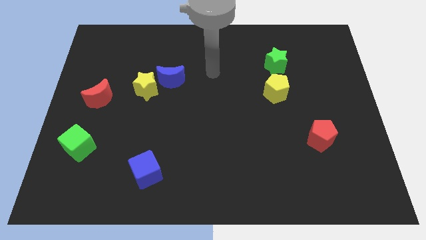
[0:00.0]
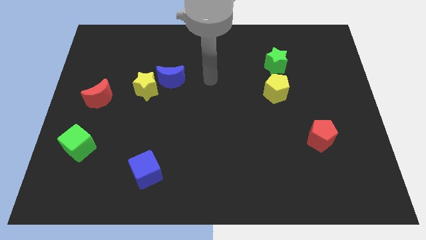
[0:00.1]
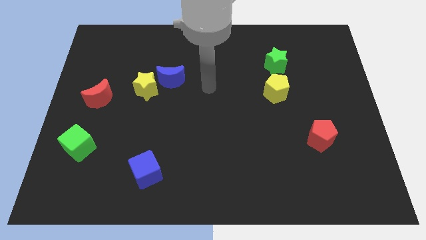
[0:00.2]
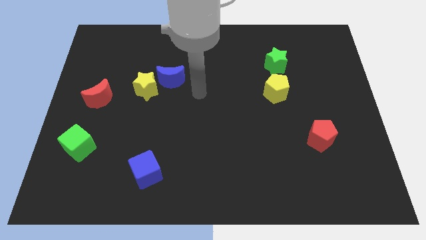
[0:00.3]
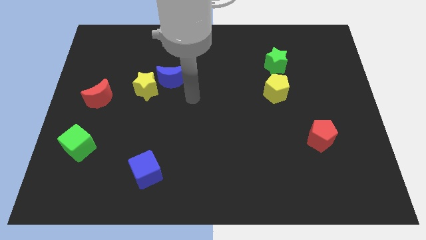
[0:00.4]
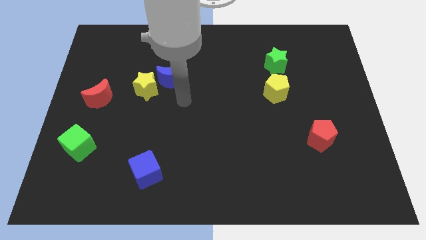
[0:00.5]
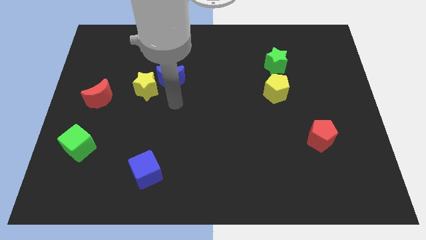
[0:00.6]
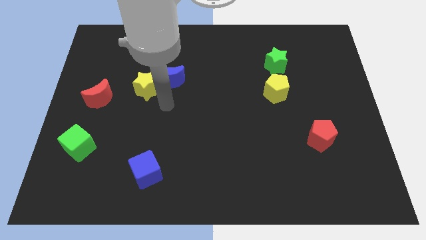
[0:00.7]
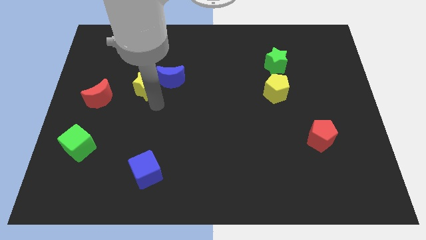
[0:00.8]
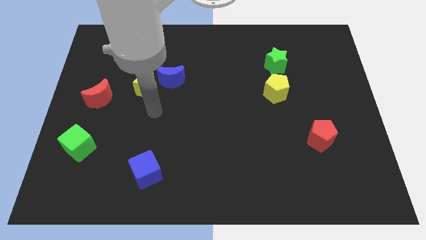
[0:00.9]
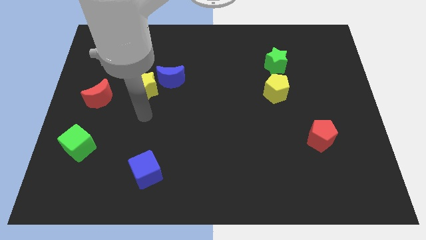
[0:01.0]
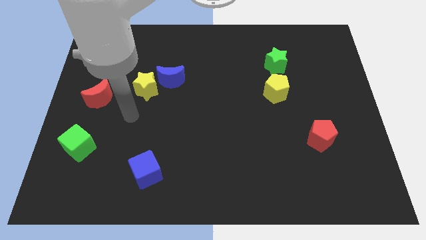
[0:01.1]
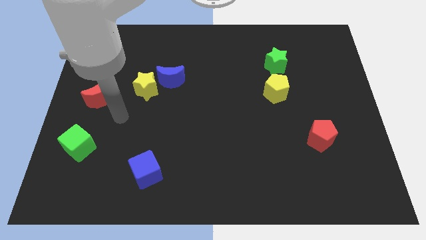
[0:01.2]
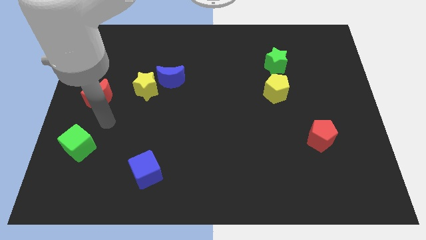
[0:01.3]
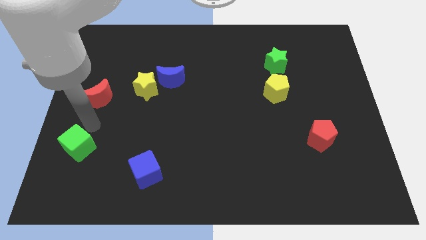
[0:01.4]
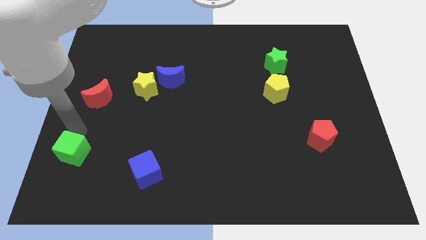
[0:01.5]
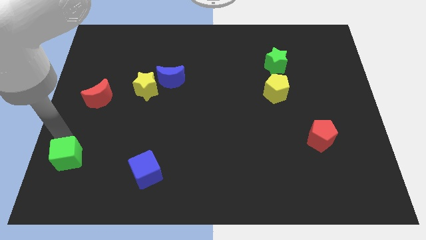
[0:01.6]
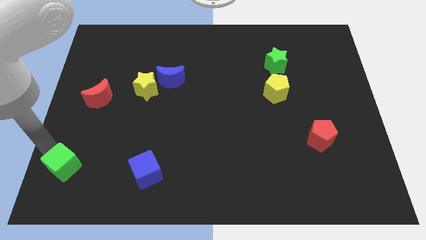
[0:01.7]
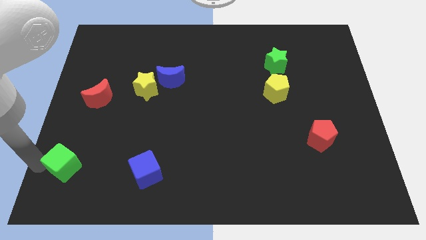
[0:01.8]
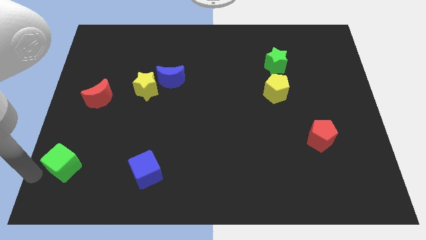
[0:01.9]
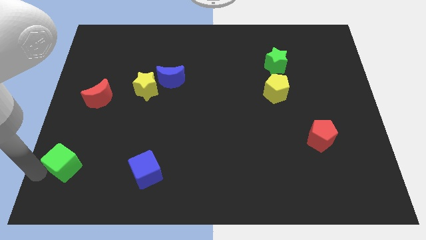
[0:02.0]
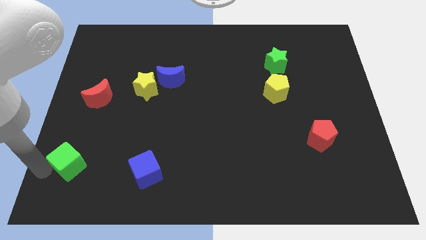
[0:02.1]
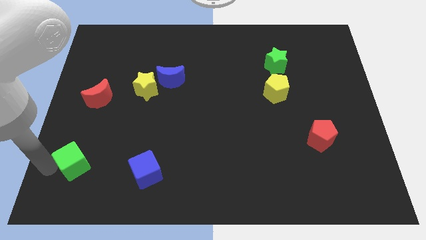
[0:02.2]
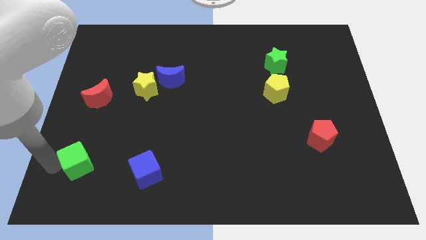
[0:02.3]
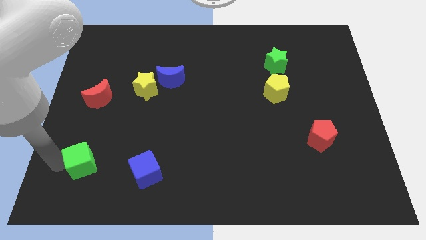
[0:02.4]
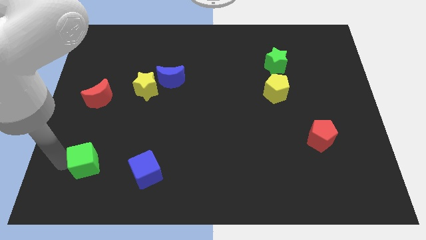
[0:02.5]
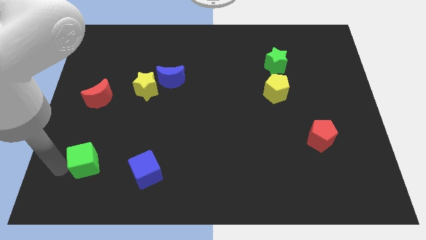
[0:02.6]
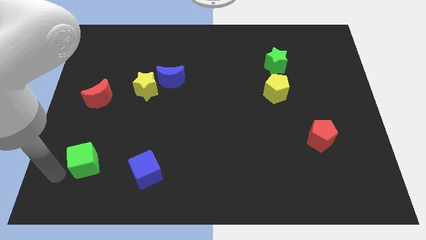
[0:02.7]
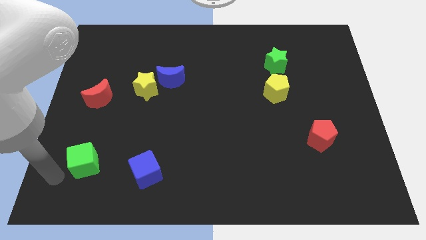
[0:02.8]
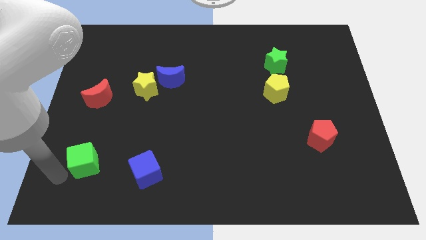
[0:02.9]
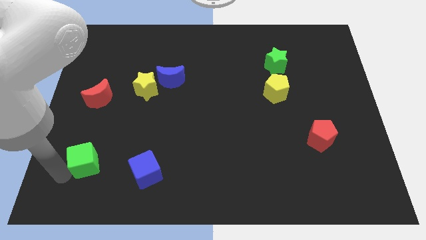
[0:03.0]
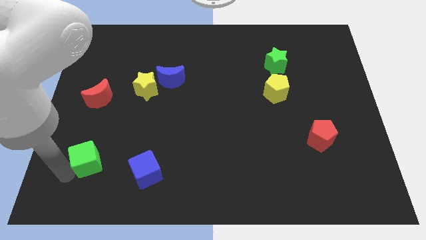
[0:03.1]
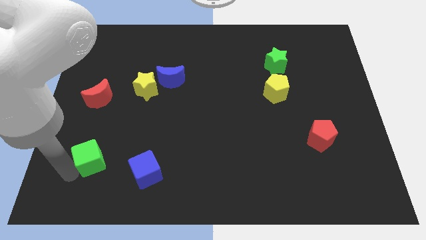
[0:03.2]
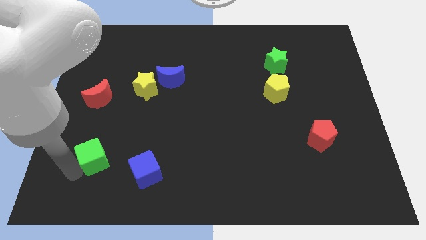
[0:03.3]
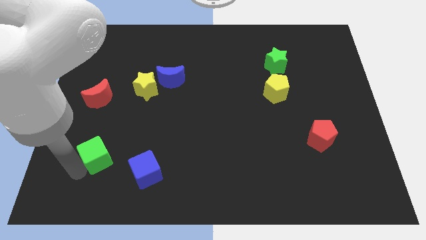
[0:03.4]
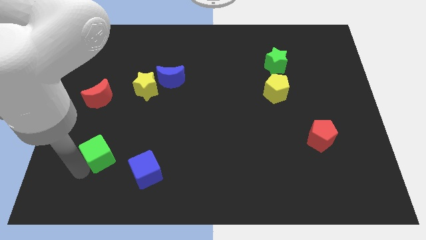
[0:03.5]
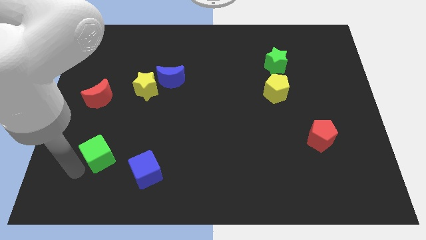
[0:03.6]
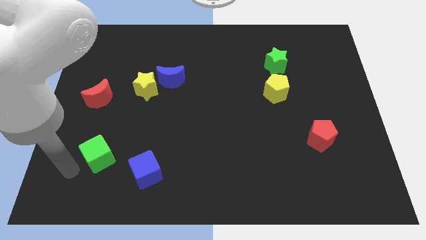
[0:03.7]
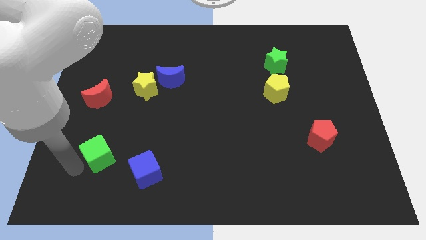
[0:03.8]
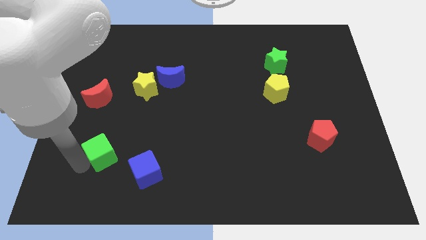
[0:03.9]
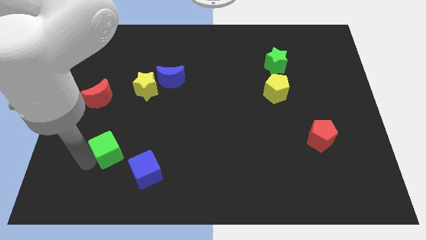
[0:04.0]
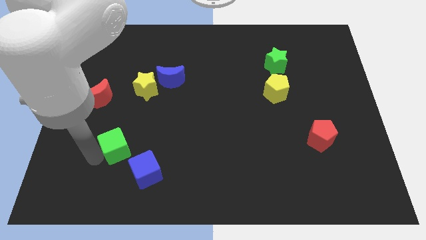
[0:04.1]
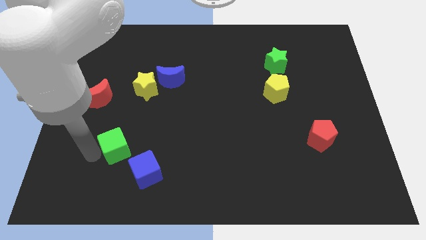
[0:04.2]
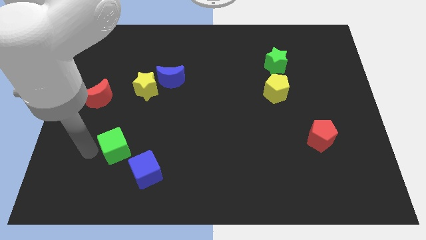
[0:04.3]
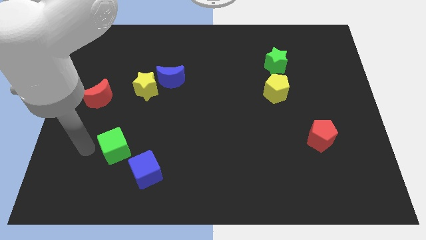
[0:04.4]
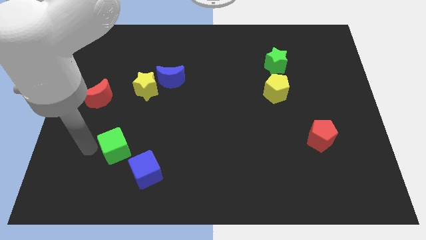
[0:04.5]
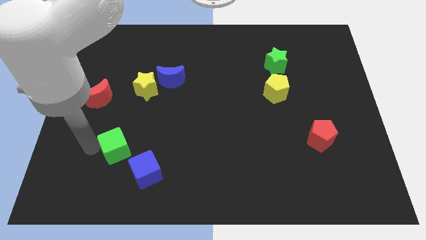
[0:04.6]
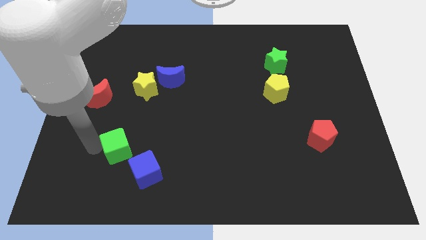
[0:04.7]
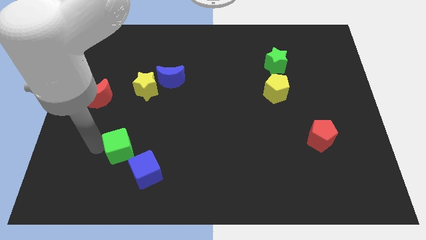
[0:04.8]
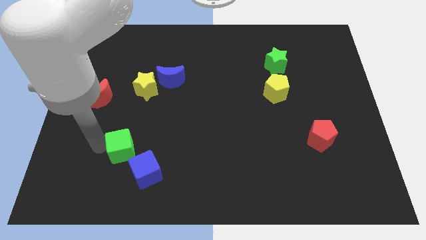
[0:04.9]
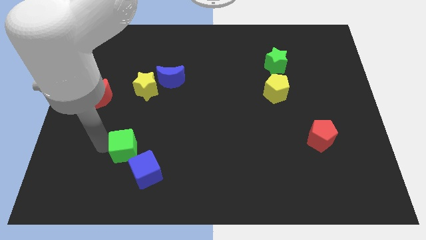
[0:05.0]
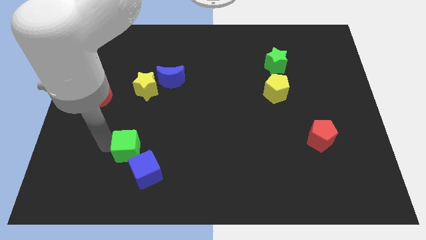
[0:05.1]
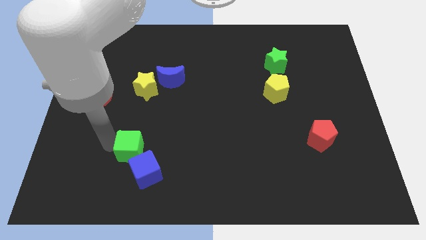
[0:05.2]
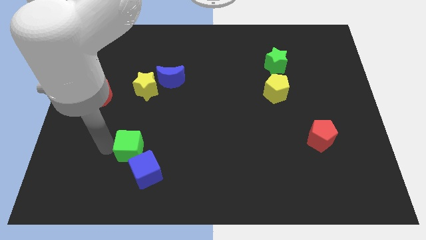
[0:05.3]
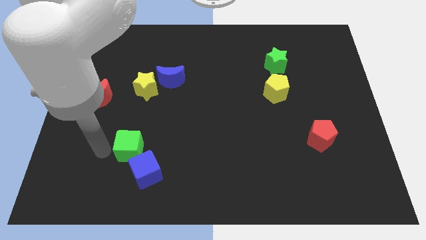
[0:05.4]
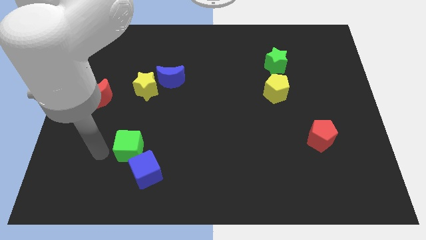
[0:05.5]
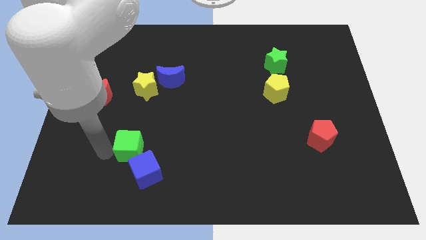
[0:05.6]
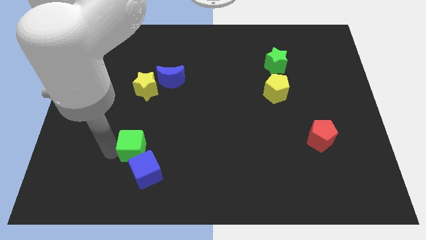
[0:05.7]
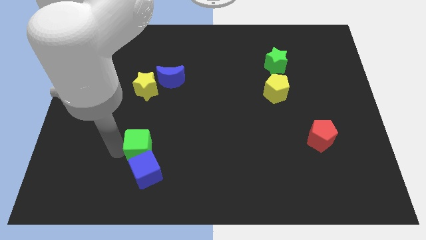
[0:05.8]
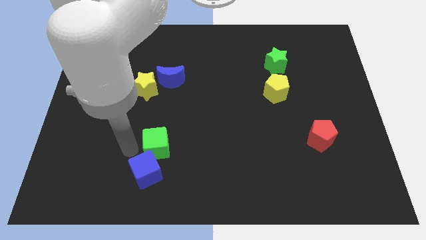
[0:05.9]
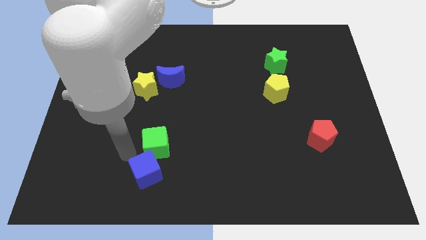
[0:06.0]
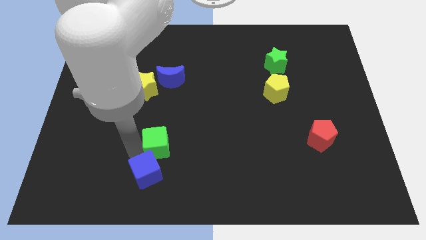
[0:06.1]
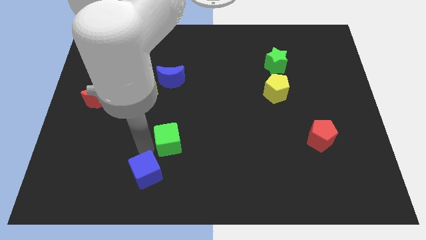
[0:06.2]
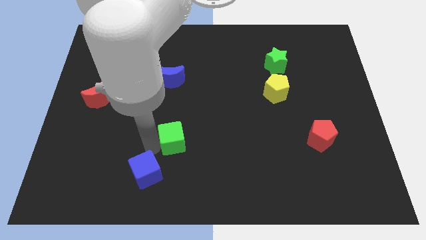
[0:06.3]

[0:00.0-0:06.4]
slide the green cube right

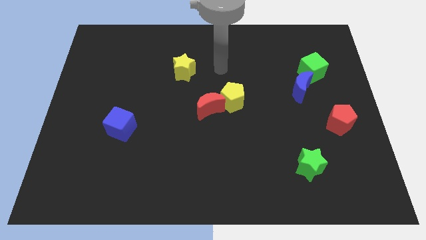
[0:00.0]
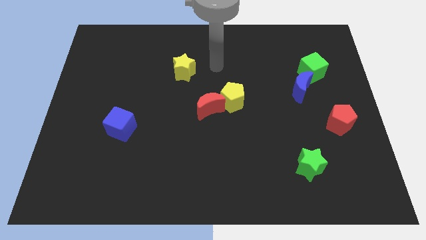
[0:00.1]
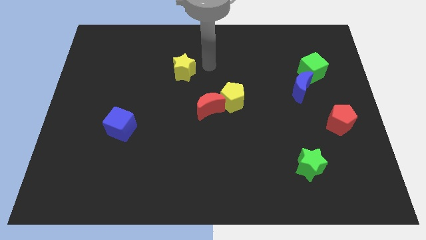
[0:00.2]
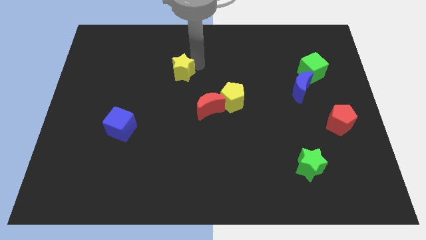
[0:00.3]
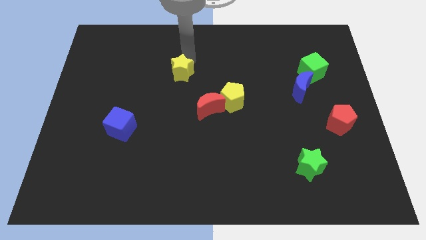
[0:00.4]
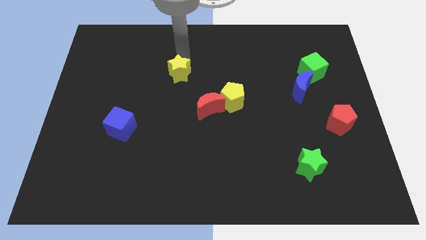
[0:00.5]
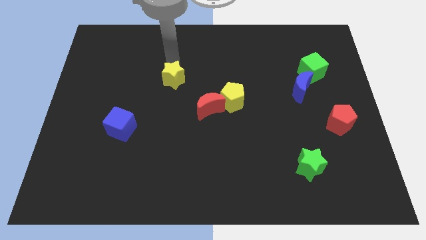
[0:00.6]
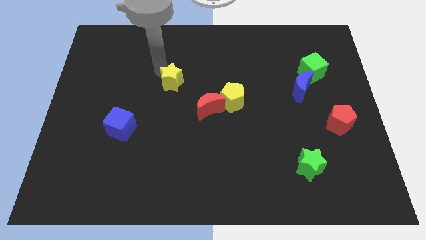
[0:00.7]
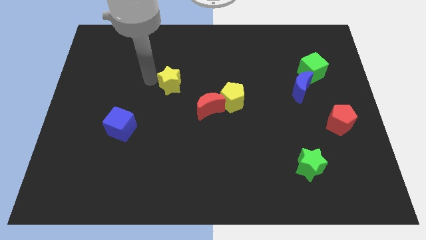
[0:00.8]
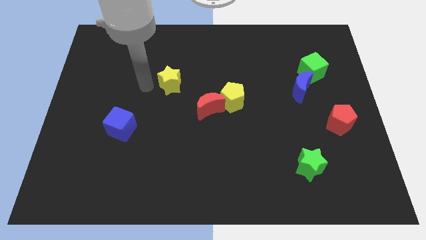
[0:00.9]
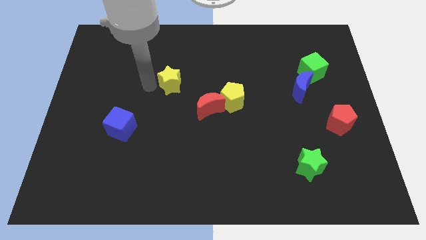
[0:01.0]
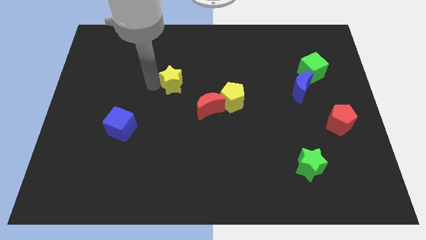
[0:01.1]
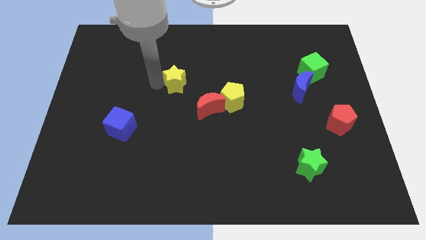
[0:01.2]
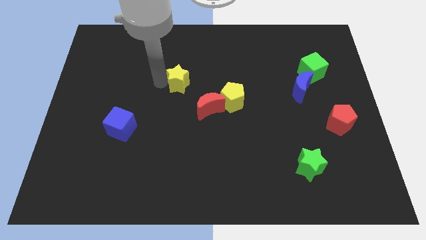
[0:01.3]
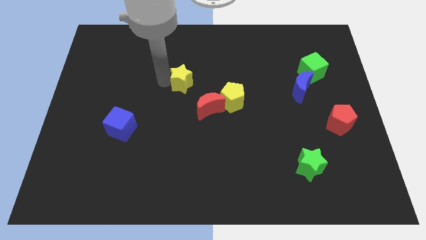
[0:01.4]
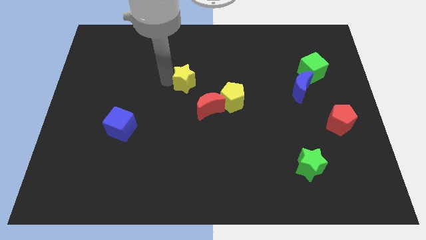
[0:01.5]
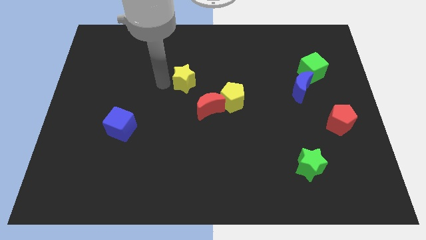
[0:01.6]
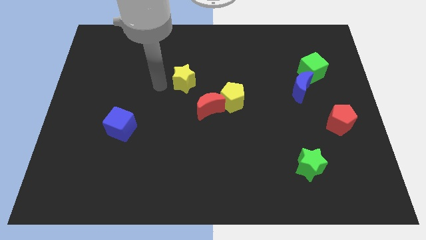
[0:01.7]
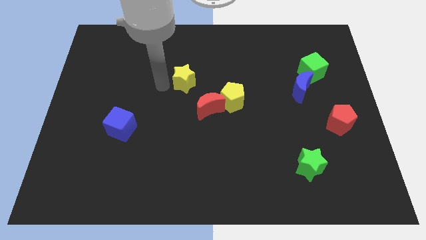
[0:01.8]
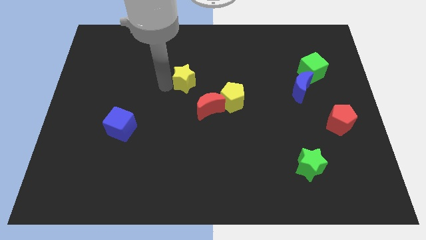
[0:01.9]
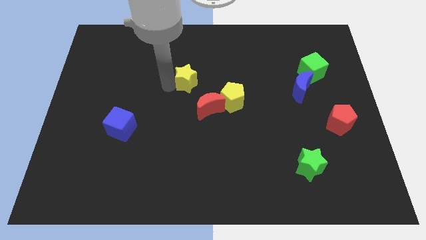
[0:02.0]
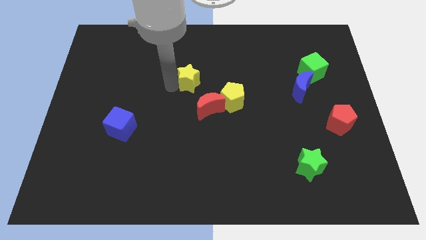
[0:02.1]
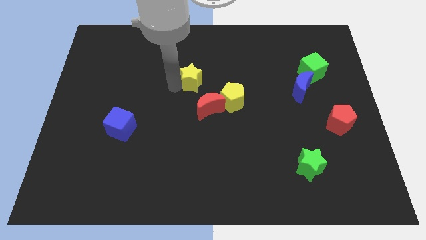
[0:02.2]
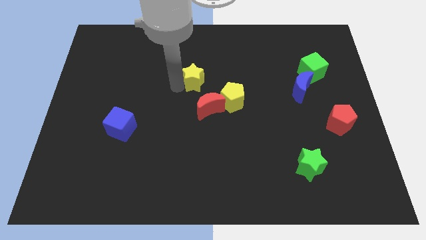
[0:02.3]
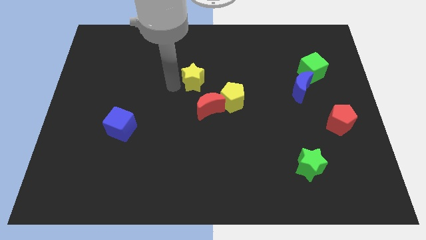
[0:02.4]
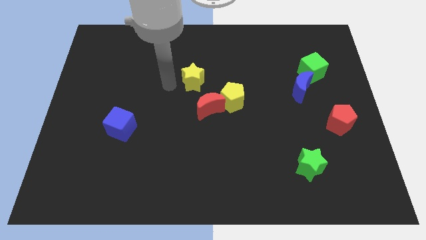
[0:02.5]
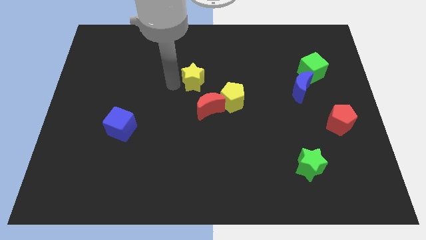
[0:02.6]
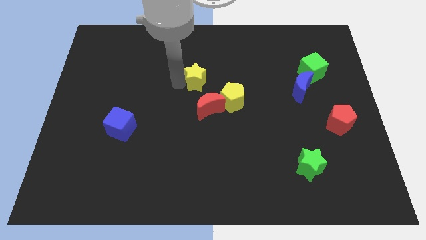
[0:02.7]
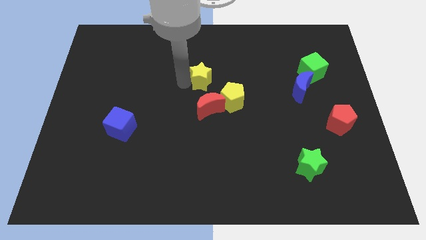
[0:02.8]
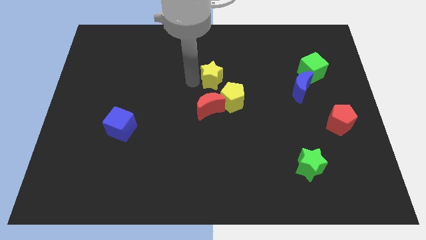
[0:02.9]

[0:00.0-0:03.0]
move the yellow star to the right a little bit
